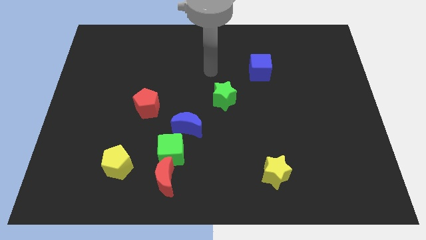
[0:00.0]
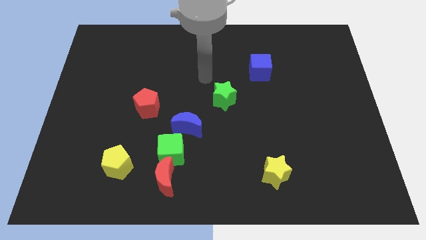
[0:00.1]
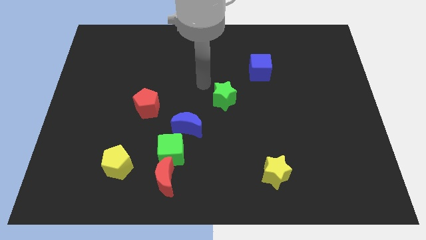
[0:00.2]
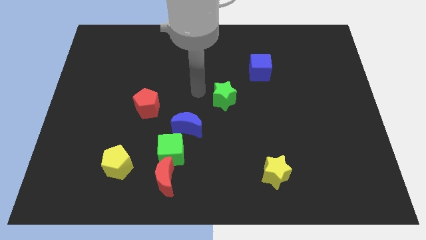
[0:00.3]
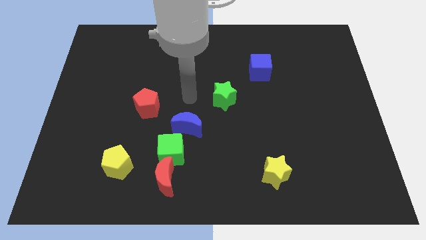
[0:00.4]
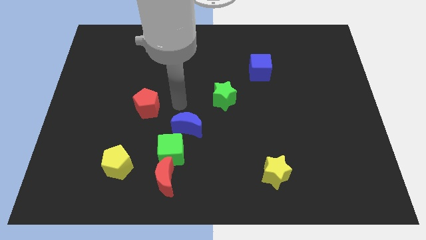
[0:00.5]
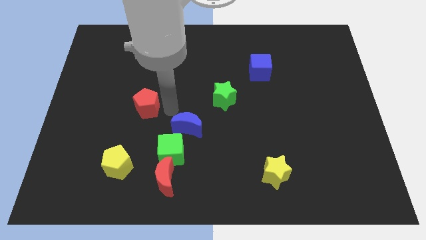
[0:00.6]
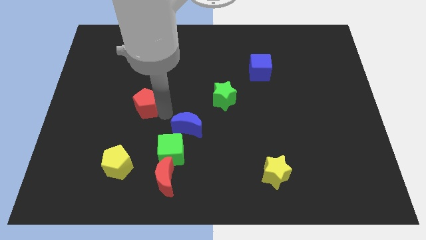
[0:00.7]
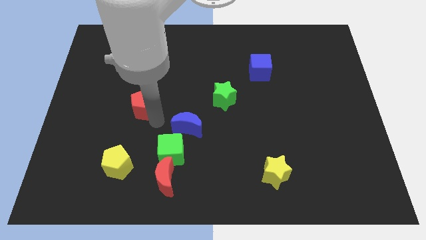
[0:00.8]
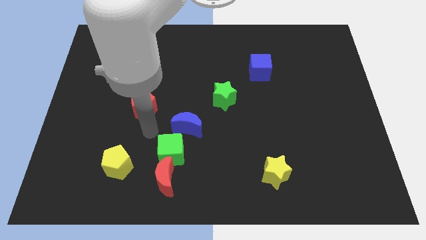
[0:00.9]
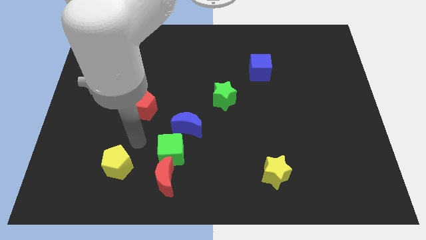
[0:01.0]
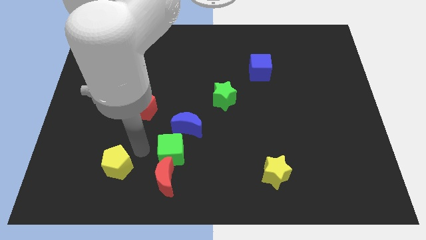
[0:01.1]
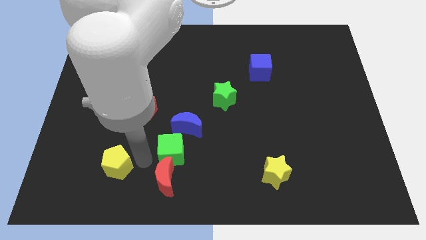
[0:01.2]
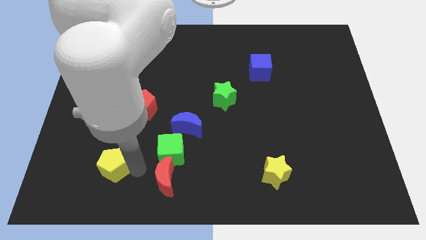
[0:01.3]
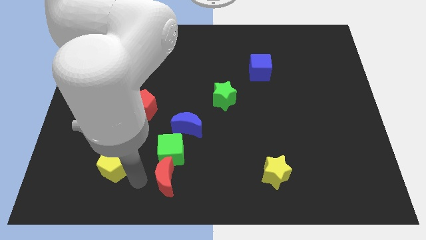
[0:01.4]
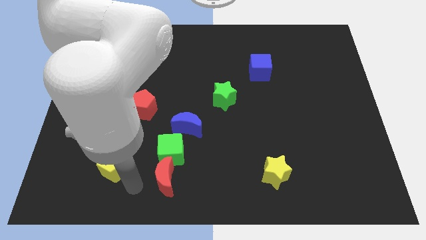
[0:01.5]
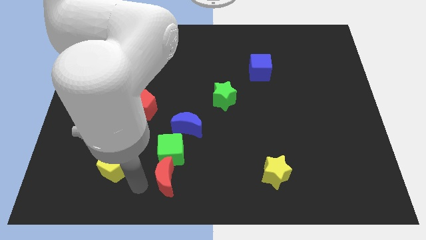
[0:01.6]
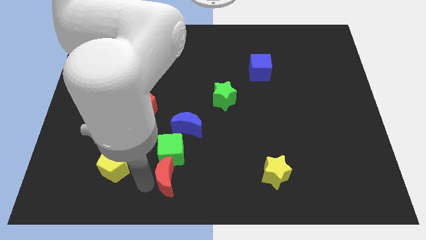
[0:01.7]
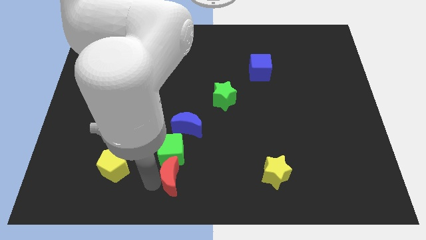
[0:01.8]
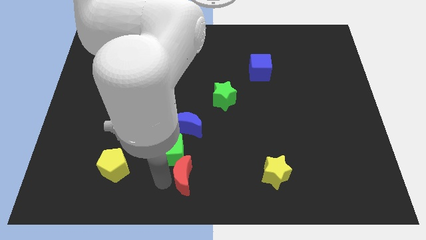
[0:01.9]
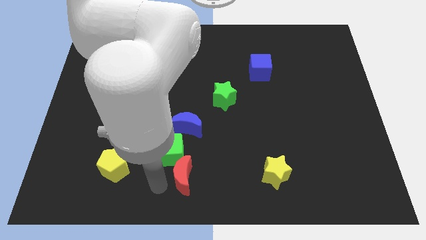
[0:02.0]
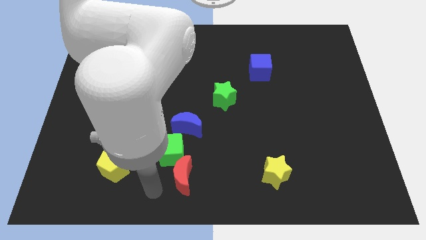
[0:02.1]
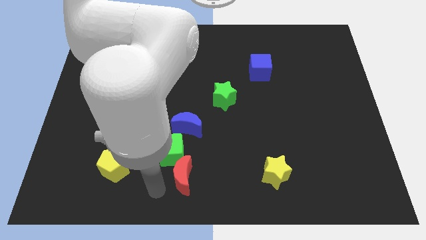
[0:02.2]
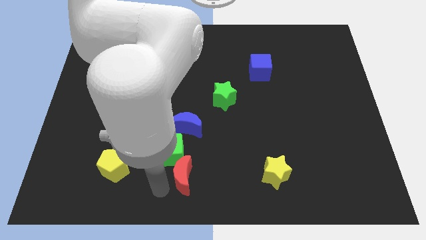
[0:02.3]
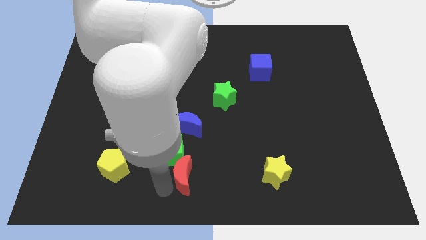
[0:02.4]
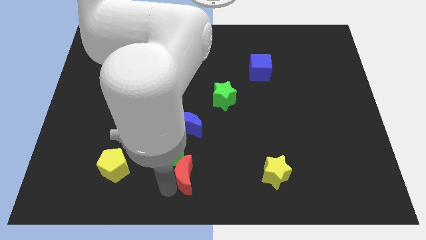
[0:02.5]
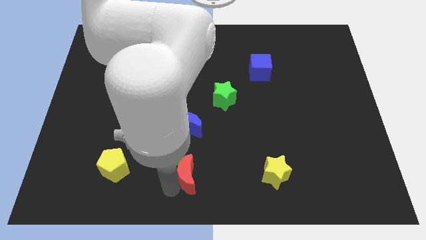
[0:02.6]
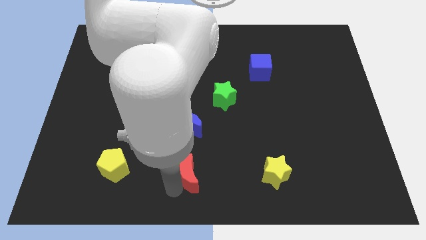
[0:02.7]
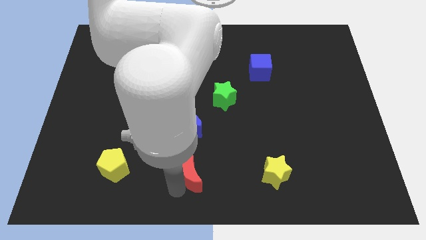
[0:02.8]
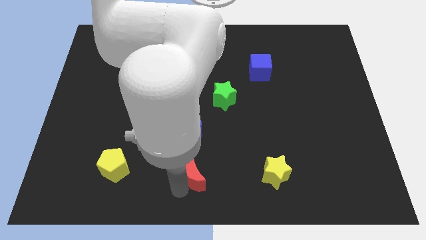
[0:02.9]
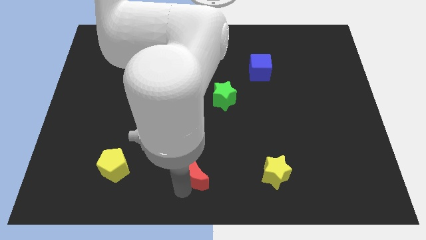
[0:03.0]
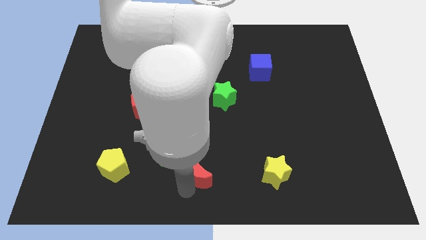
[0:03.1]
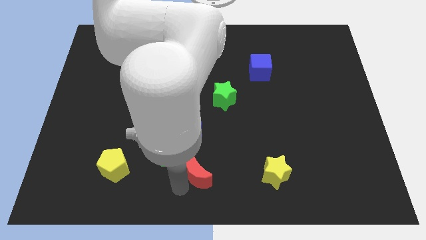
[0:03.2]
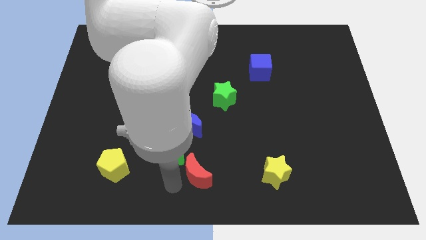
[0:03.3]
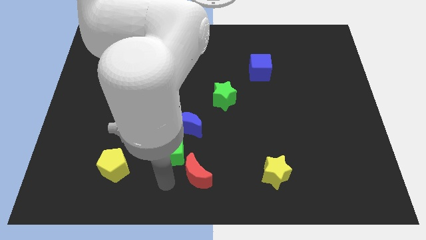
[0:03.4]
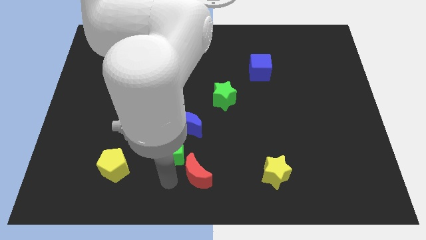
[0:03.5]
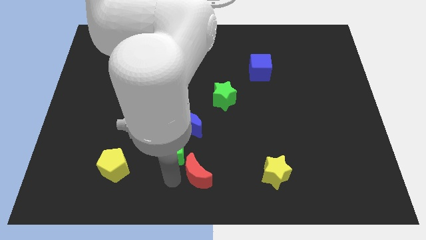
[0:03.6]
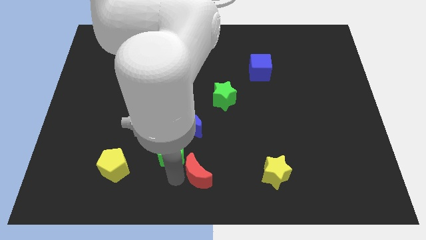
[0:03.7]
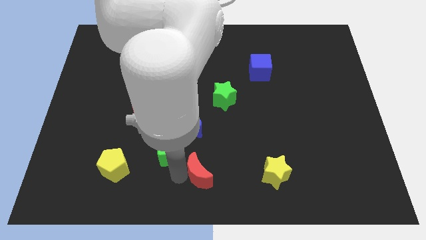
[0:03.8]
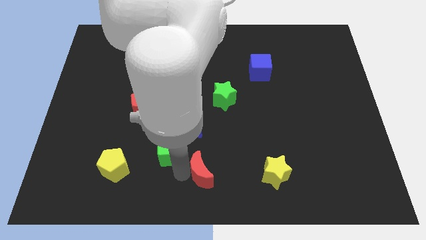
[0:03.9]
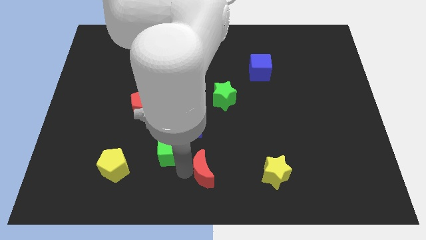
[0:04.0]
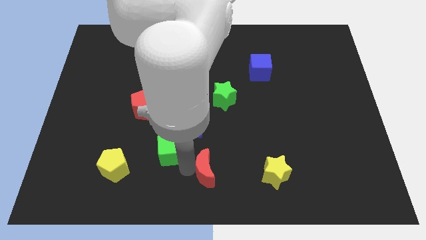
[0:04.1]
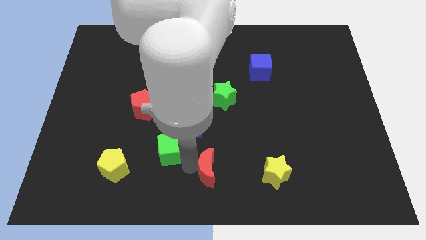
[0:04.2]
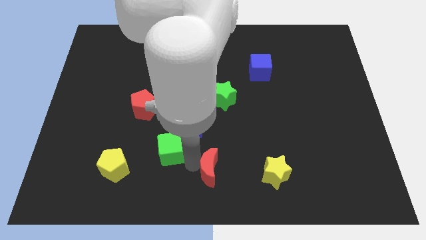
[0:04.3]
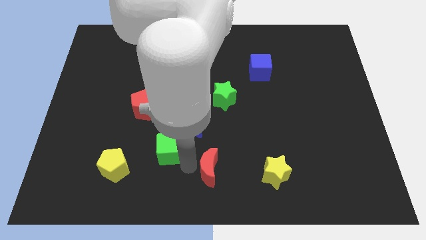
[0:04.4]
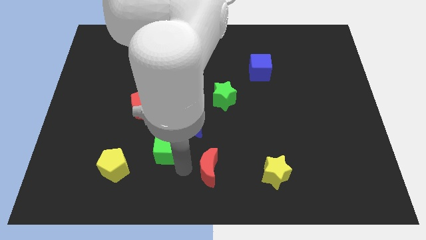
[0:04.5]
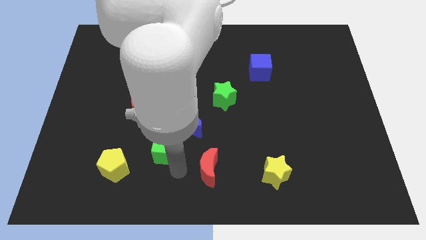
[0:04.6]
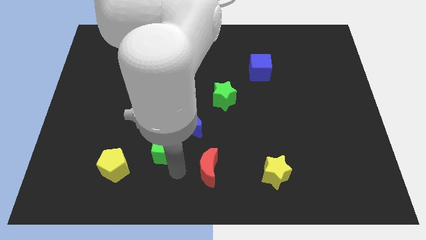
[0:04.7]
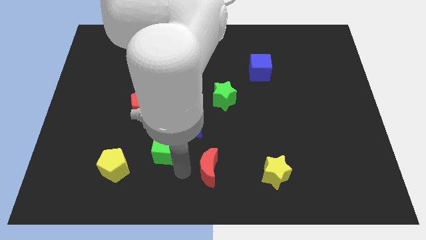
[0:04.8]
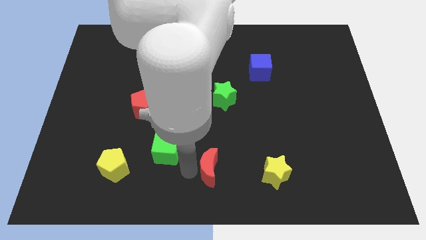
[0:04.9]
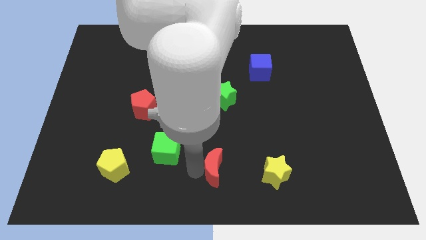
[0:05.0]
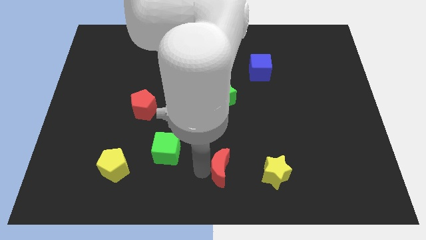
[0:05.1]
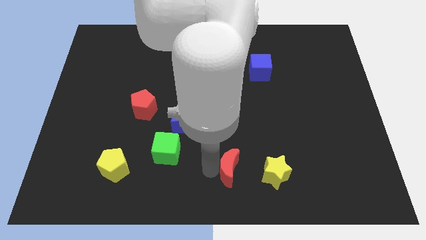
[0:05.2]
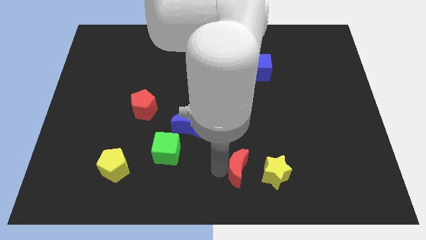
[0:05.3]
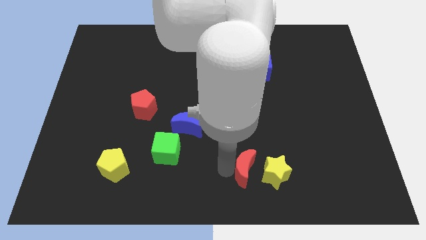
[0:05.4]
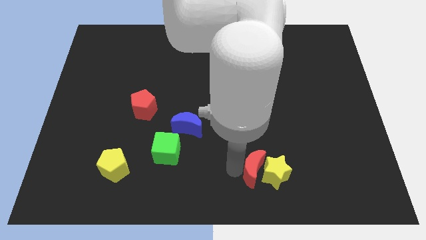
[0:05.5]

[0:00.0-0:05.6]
move the red moon towards the yellow star

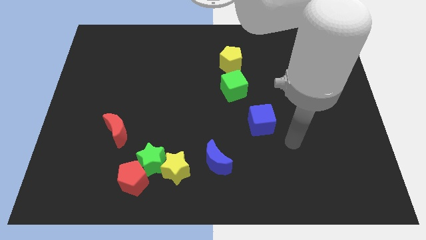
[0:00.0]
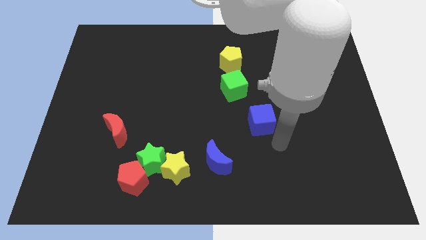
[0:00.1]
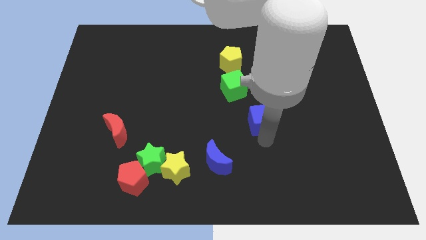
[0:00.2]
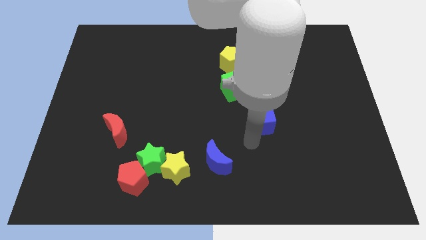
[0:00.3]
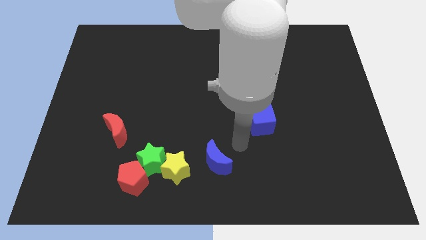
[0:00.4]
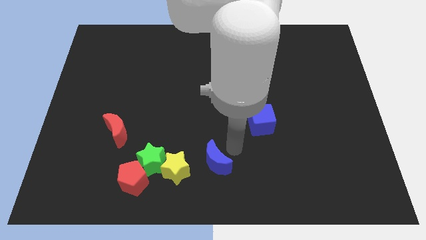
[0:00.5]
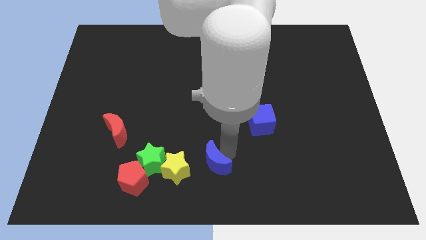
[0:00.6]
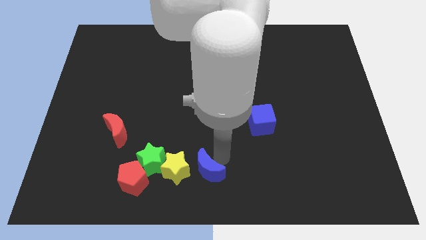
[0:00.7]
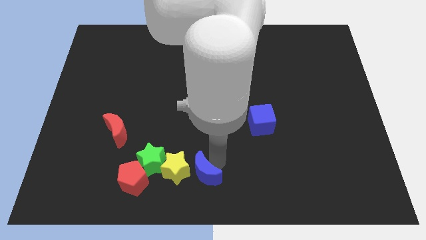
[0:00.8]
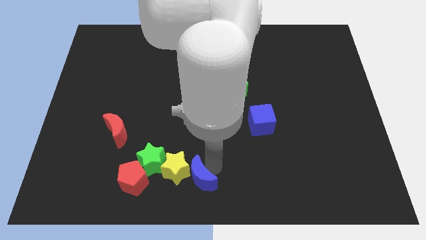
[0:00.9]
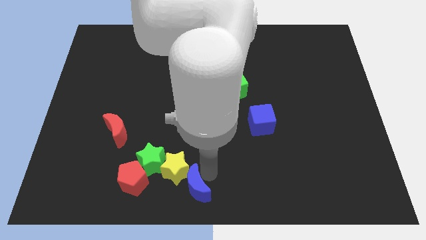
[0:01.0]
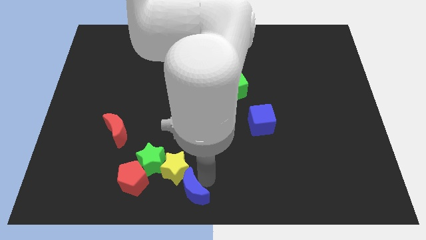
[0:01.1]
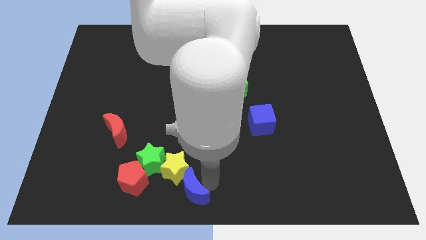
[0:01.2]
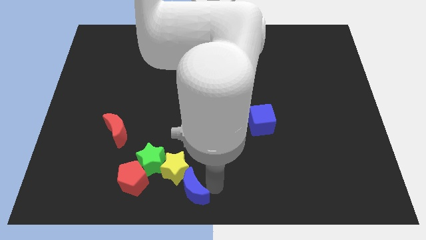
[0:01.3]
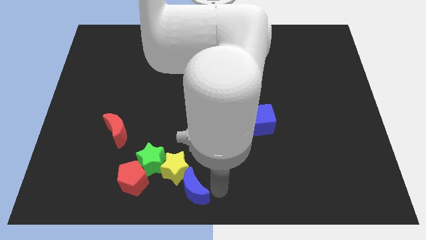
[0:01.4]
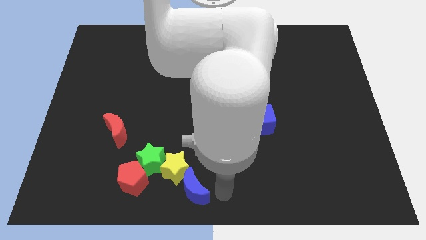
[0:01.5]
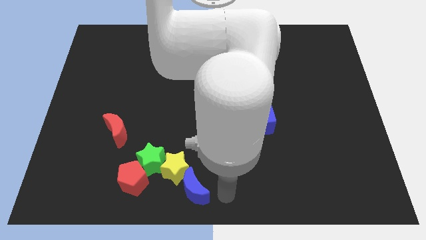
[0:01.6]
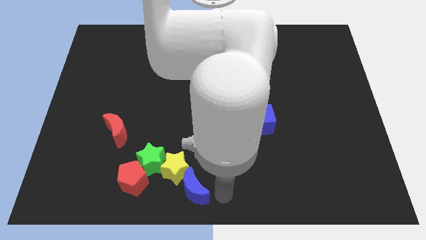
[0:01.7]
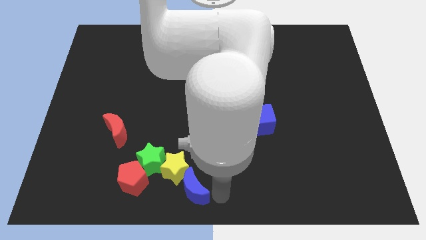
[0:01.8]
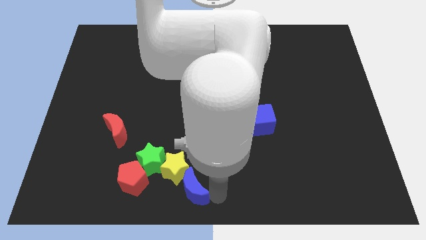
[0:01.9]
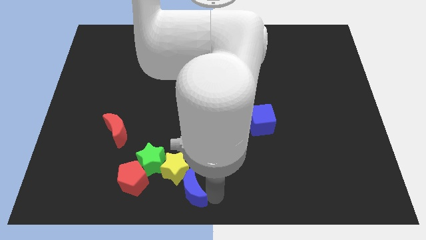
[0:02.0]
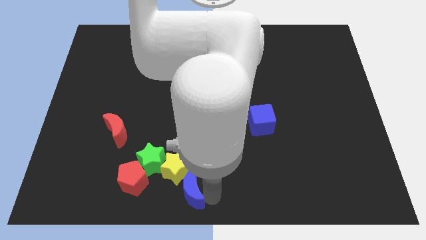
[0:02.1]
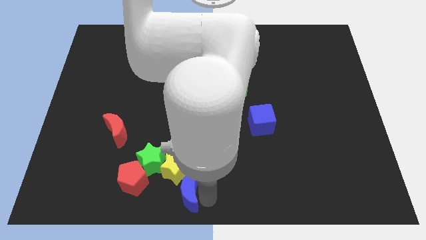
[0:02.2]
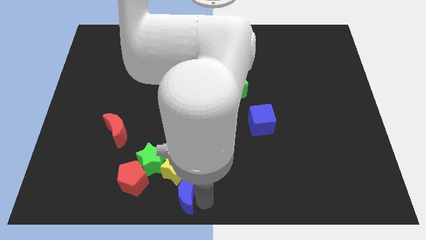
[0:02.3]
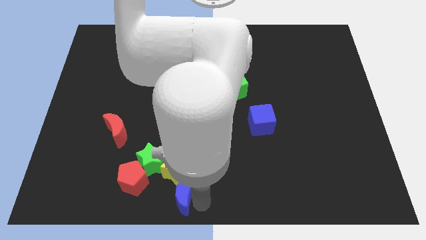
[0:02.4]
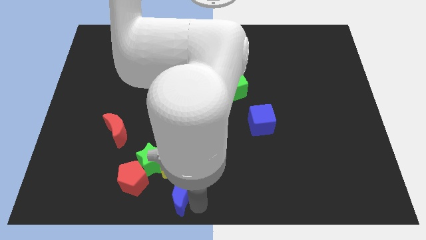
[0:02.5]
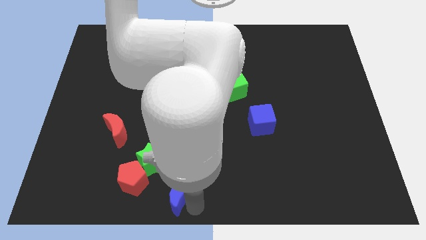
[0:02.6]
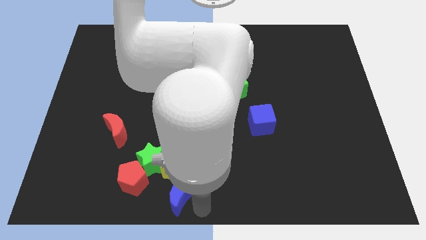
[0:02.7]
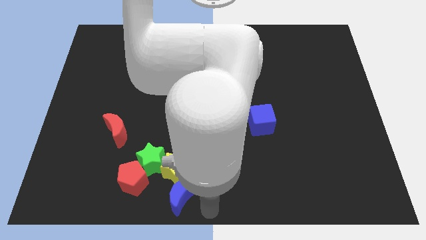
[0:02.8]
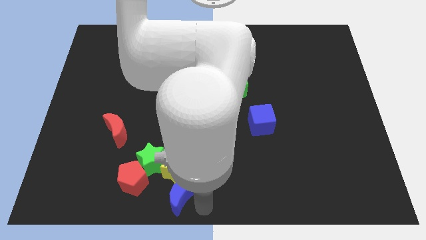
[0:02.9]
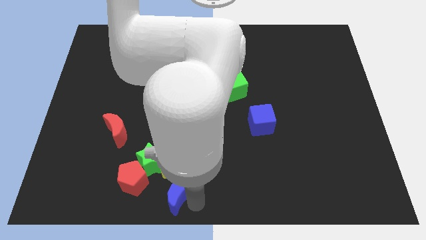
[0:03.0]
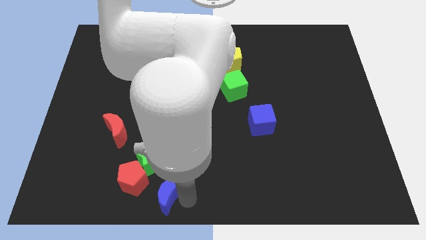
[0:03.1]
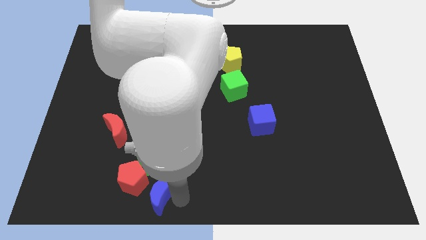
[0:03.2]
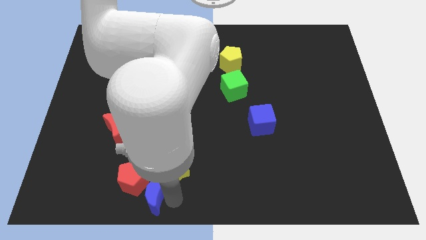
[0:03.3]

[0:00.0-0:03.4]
move the blue moon towards the red pentagon
